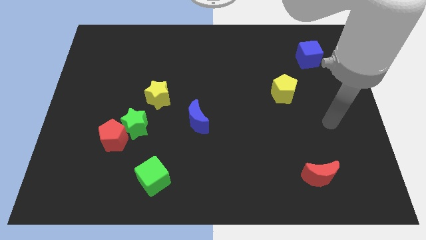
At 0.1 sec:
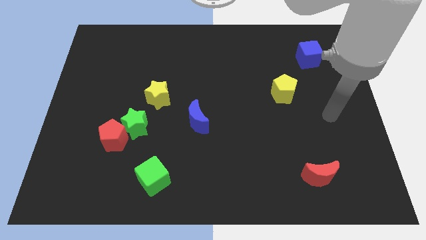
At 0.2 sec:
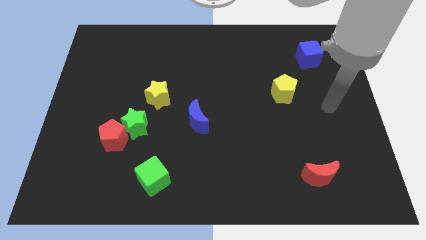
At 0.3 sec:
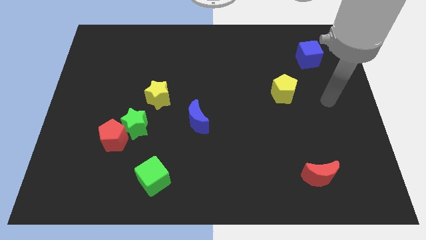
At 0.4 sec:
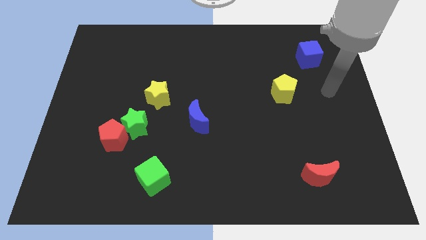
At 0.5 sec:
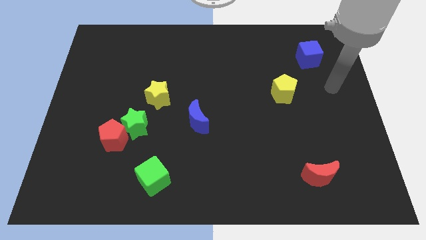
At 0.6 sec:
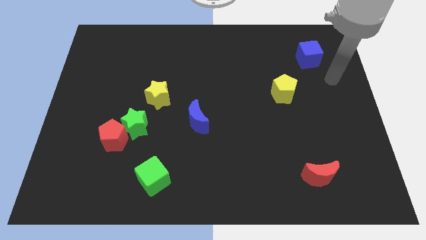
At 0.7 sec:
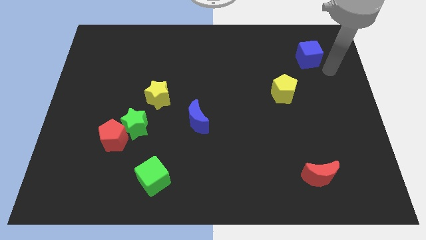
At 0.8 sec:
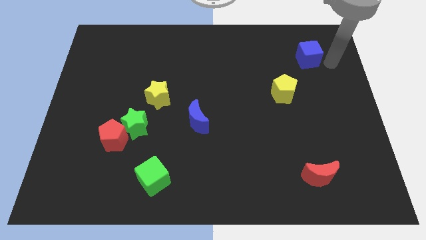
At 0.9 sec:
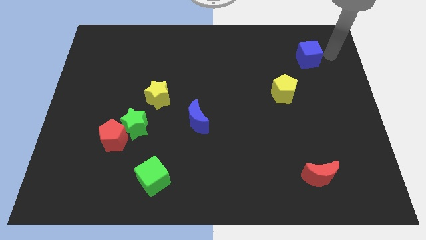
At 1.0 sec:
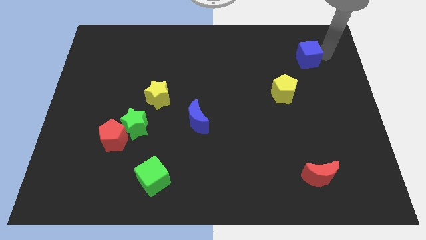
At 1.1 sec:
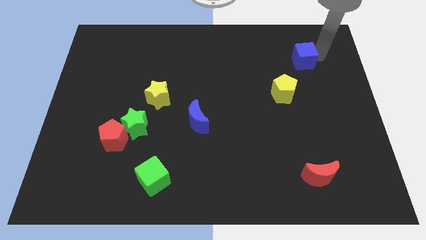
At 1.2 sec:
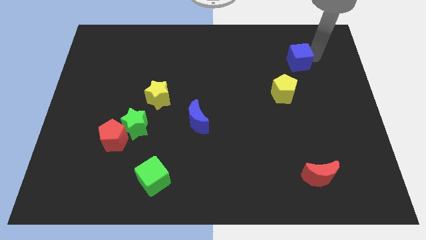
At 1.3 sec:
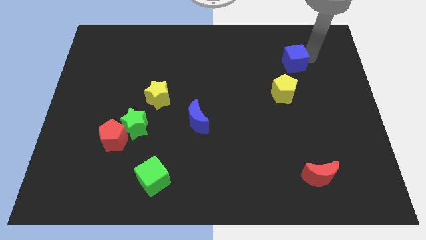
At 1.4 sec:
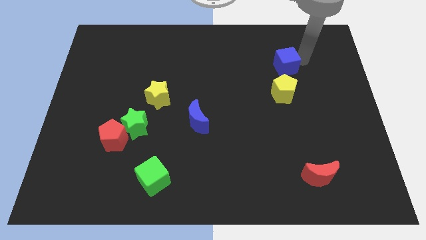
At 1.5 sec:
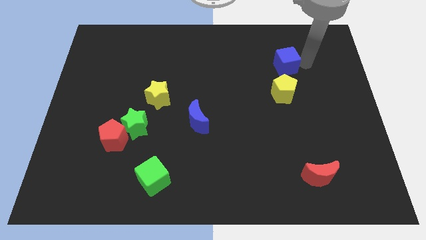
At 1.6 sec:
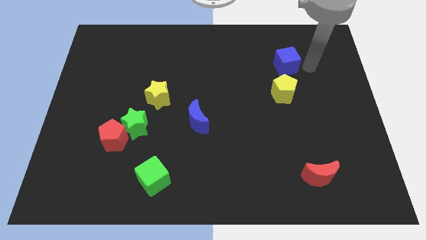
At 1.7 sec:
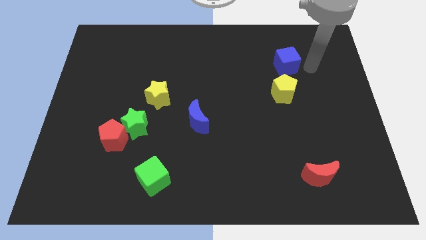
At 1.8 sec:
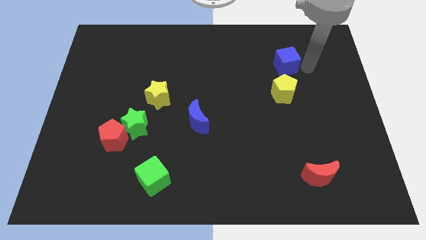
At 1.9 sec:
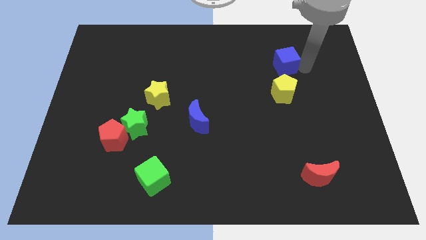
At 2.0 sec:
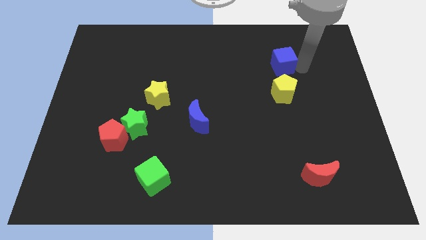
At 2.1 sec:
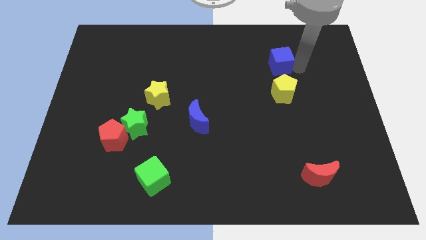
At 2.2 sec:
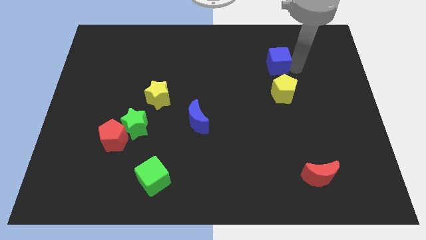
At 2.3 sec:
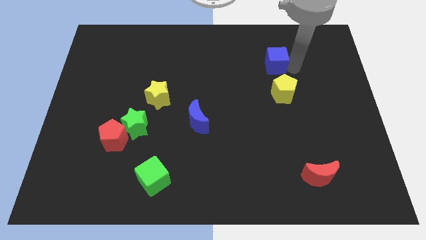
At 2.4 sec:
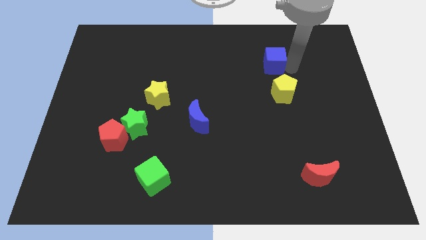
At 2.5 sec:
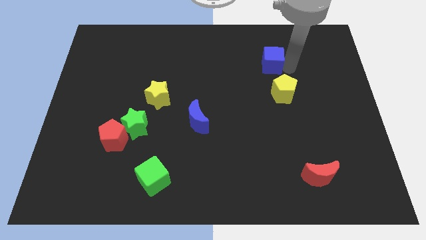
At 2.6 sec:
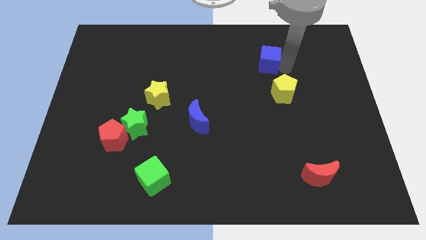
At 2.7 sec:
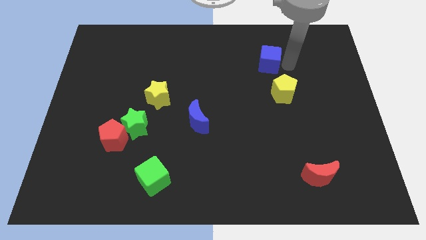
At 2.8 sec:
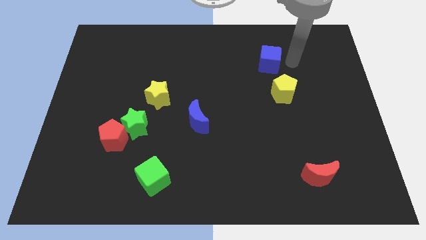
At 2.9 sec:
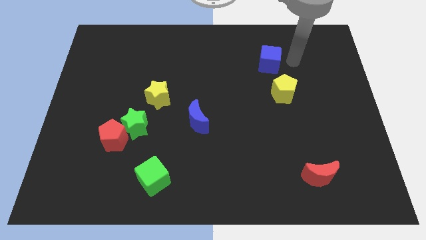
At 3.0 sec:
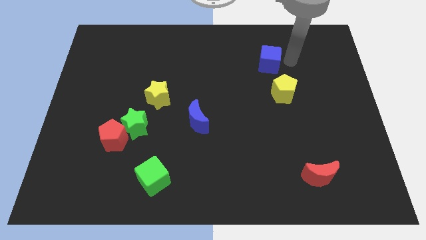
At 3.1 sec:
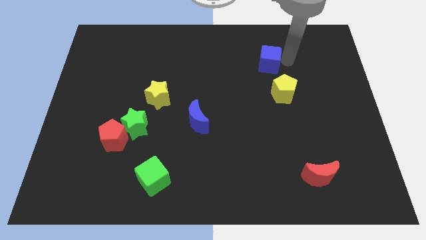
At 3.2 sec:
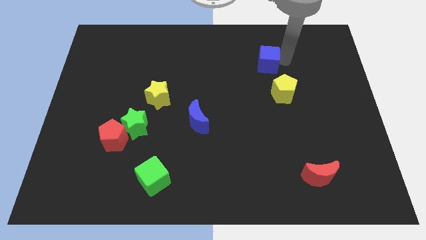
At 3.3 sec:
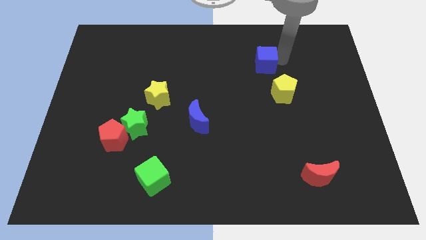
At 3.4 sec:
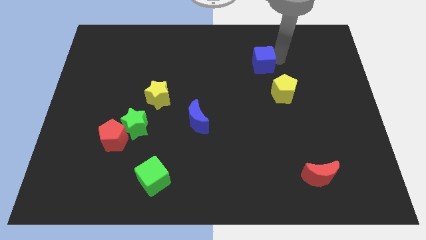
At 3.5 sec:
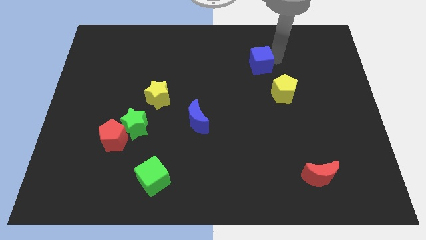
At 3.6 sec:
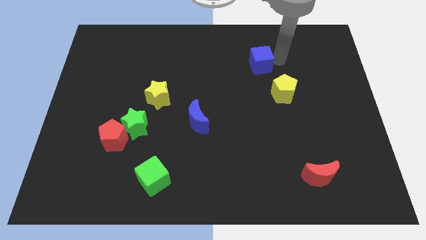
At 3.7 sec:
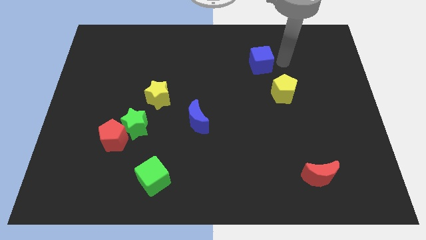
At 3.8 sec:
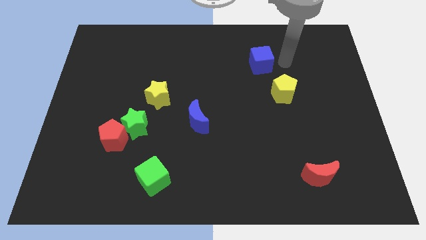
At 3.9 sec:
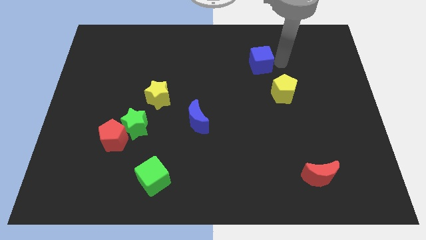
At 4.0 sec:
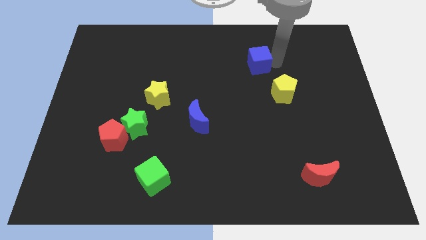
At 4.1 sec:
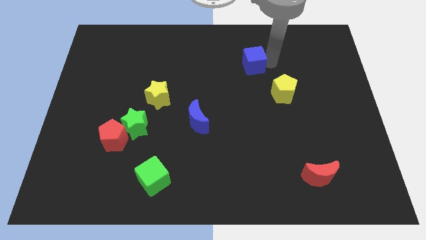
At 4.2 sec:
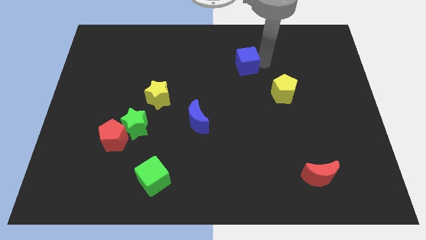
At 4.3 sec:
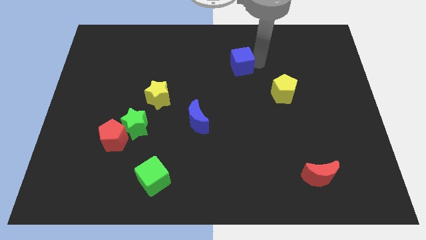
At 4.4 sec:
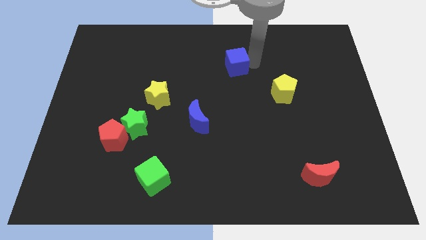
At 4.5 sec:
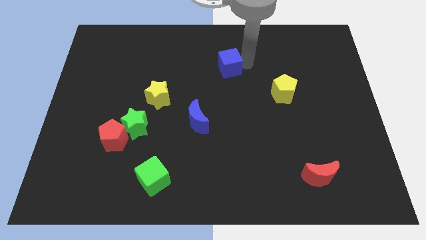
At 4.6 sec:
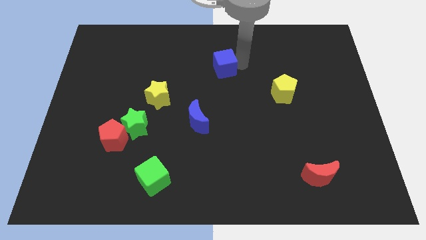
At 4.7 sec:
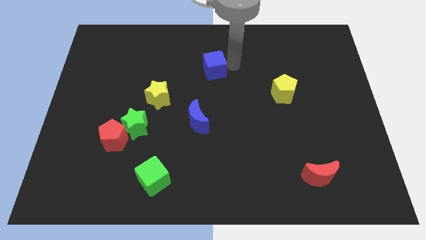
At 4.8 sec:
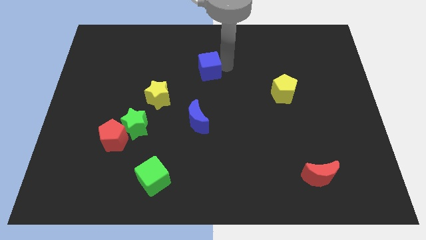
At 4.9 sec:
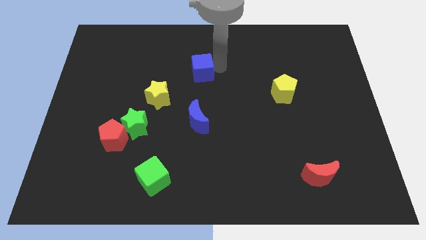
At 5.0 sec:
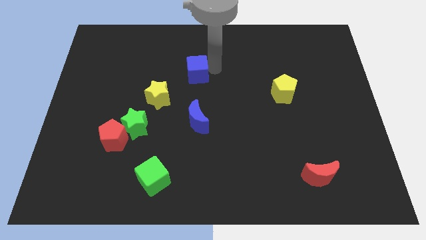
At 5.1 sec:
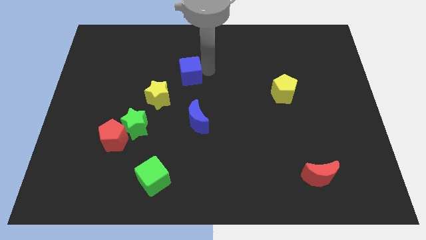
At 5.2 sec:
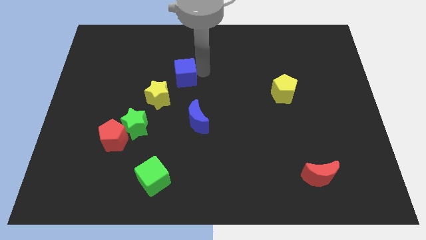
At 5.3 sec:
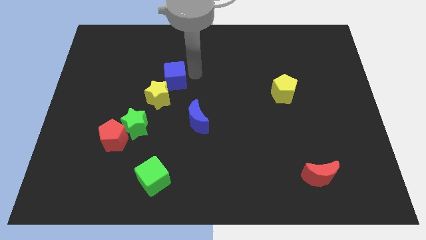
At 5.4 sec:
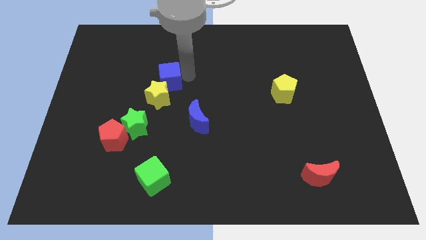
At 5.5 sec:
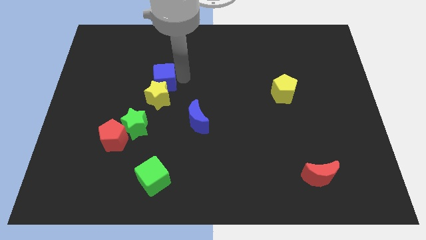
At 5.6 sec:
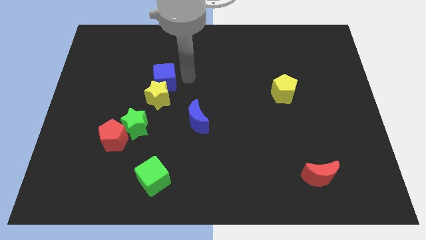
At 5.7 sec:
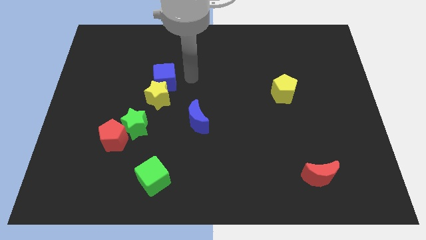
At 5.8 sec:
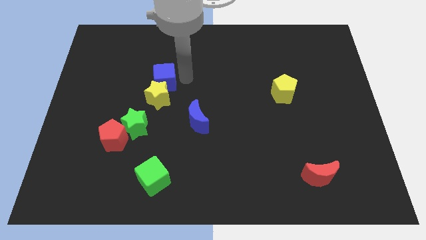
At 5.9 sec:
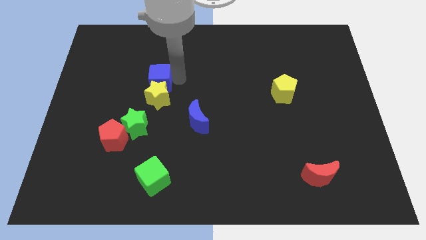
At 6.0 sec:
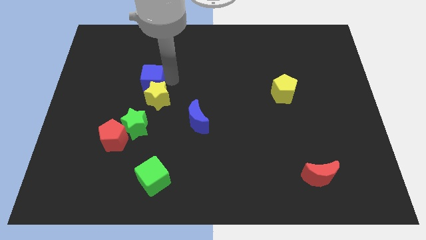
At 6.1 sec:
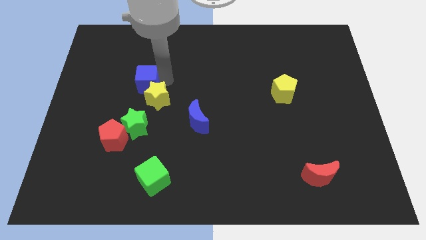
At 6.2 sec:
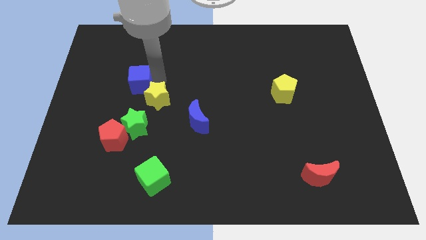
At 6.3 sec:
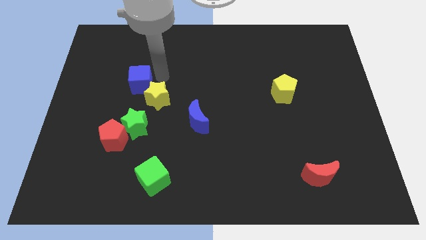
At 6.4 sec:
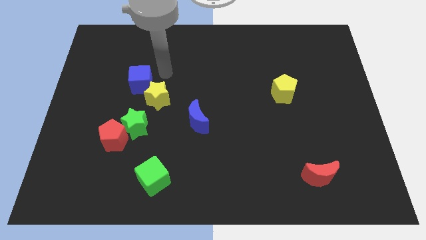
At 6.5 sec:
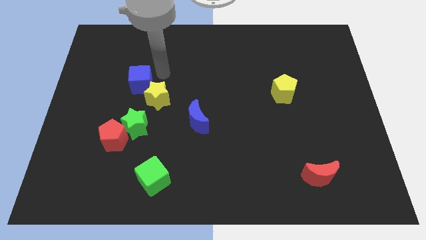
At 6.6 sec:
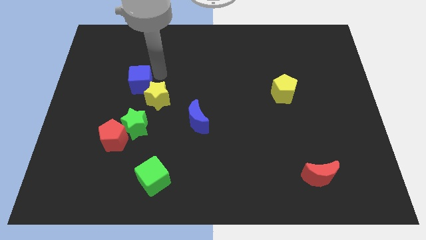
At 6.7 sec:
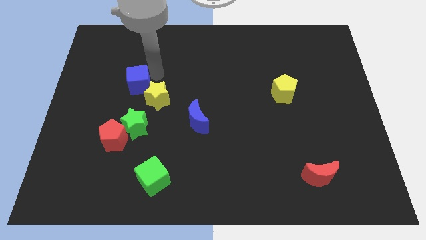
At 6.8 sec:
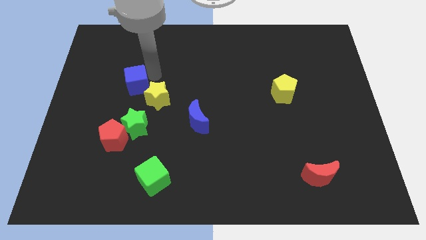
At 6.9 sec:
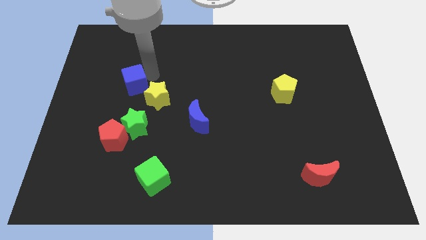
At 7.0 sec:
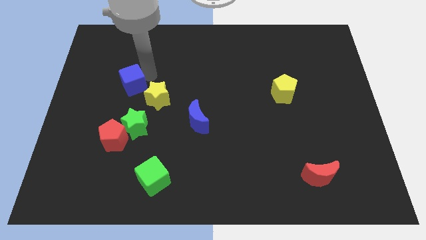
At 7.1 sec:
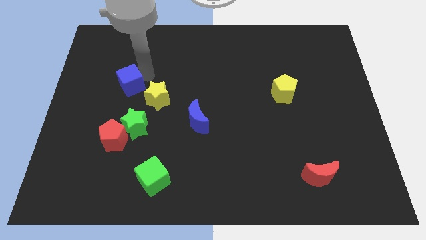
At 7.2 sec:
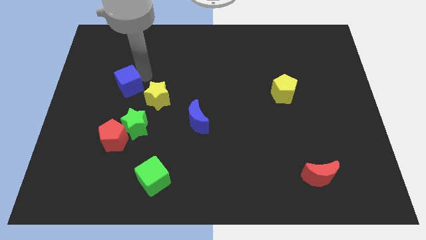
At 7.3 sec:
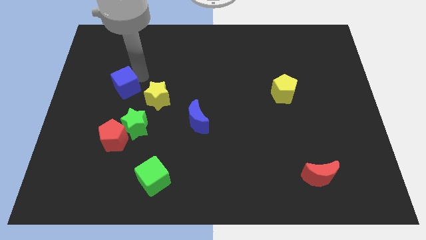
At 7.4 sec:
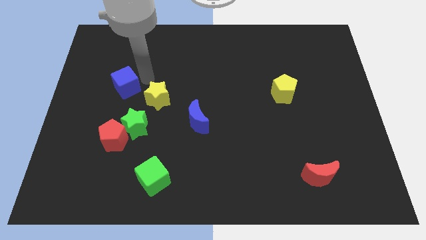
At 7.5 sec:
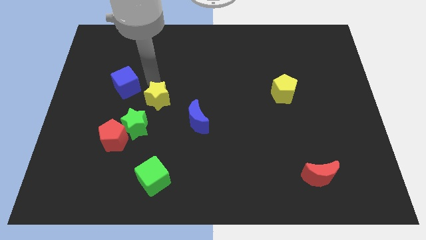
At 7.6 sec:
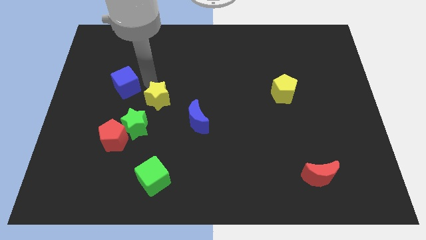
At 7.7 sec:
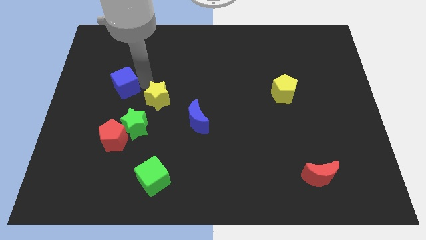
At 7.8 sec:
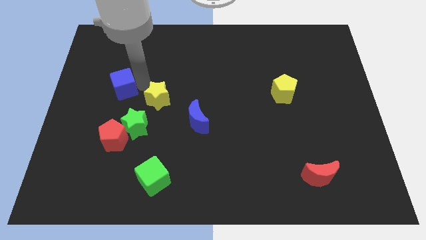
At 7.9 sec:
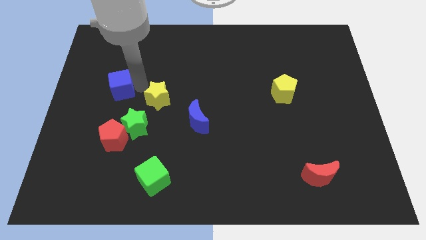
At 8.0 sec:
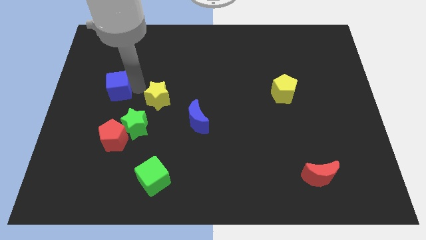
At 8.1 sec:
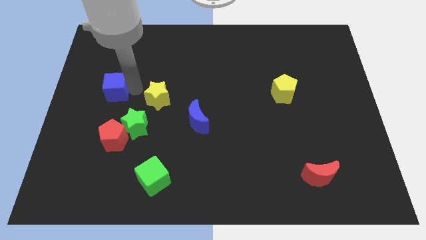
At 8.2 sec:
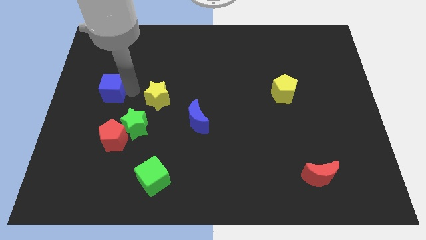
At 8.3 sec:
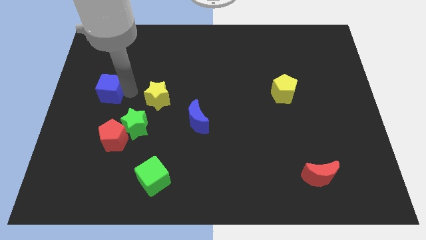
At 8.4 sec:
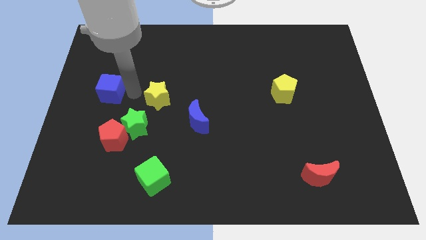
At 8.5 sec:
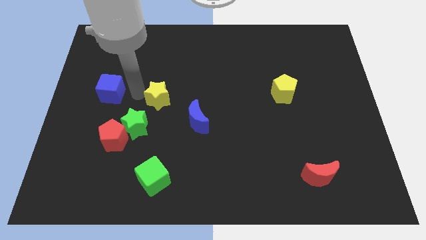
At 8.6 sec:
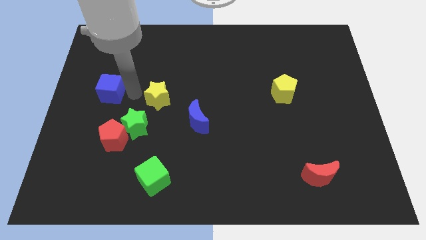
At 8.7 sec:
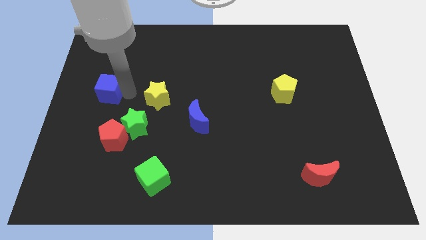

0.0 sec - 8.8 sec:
push the blue cube to the left side
